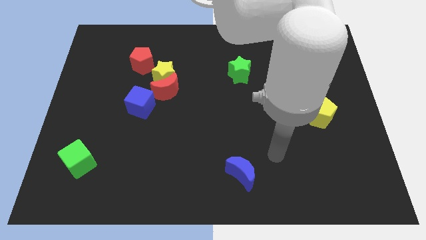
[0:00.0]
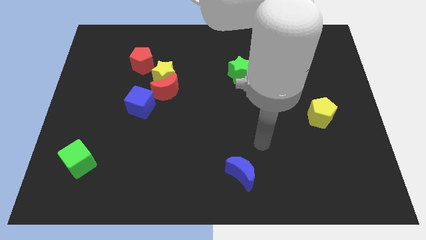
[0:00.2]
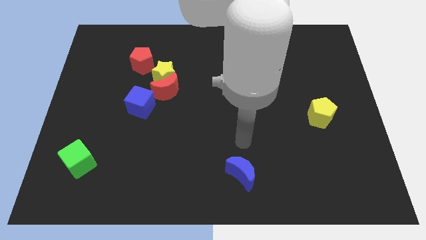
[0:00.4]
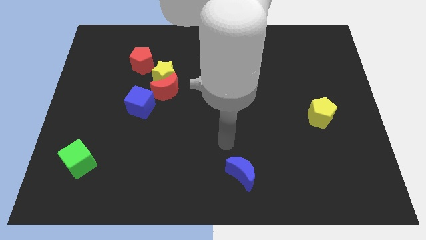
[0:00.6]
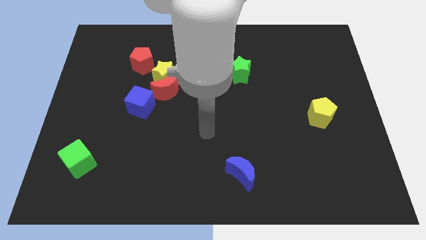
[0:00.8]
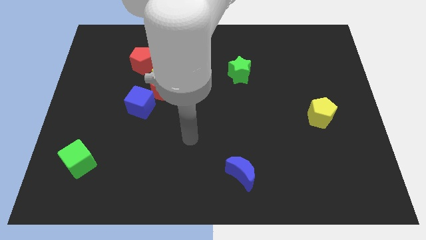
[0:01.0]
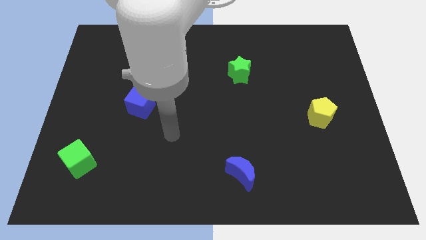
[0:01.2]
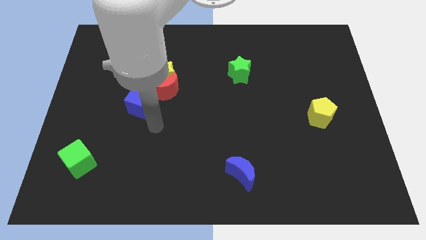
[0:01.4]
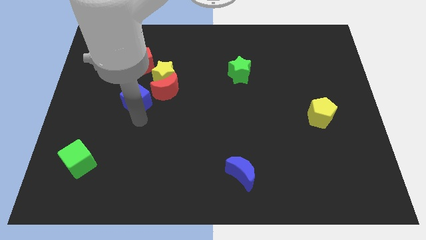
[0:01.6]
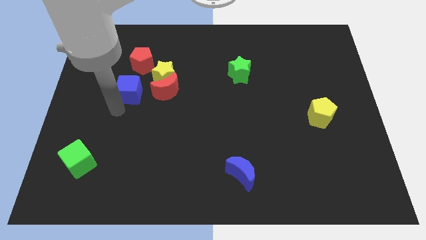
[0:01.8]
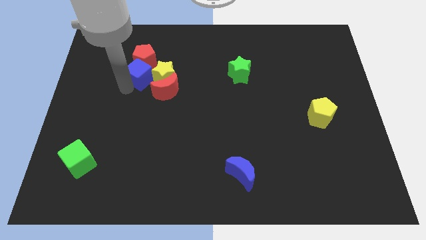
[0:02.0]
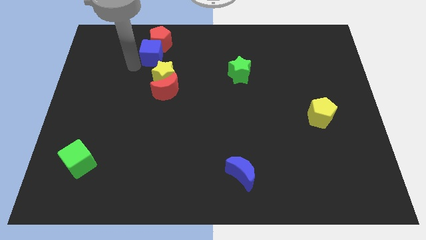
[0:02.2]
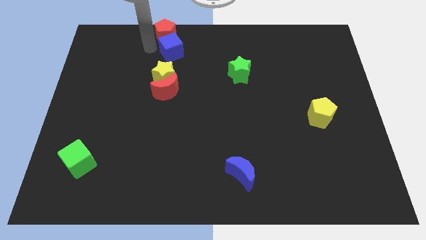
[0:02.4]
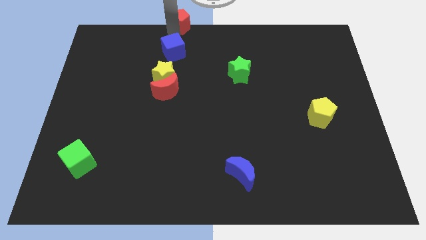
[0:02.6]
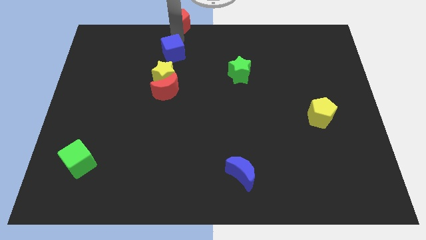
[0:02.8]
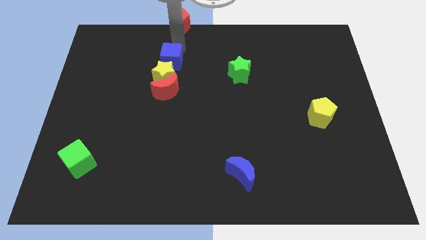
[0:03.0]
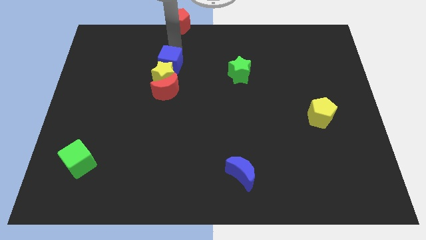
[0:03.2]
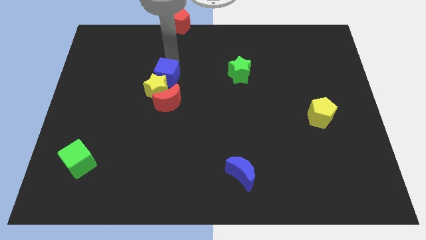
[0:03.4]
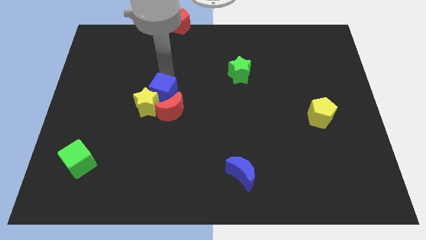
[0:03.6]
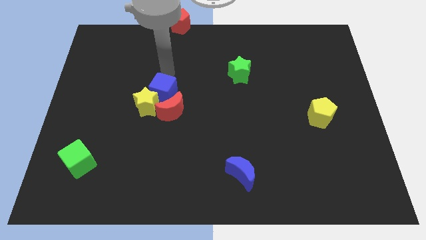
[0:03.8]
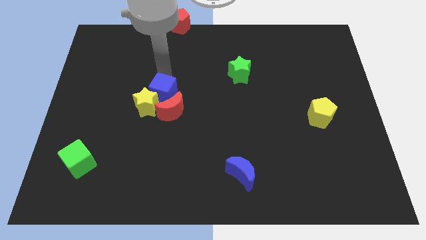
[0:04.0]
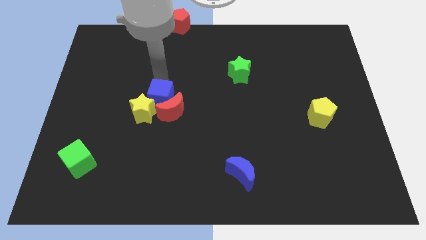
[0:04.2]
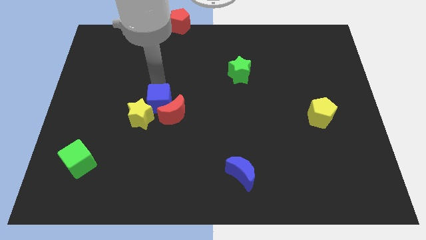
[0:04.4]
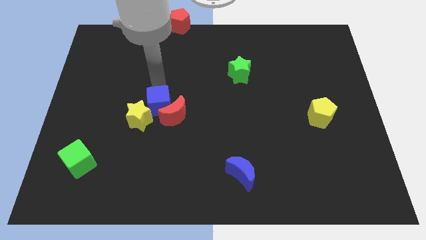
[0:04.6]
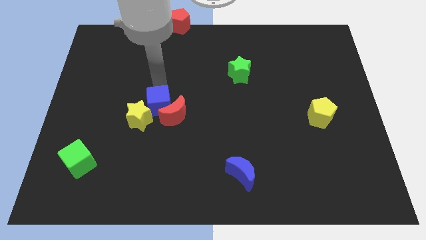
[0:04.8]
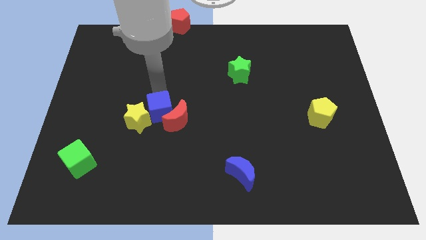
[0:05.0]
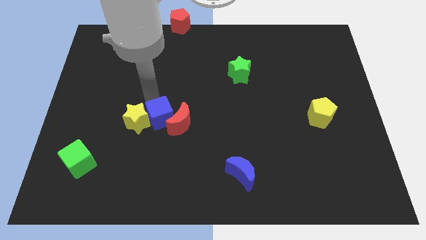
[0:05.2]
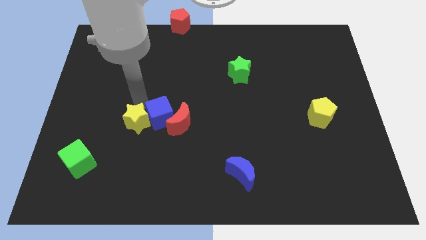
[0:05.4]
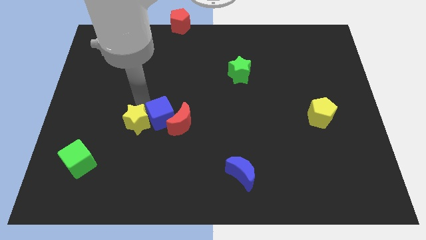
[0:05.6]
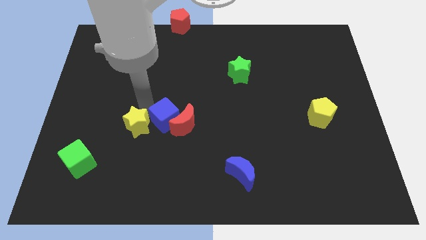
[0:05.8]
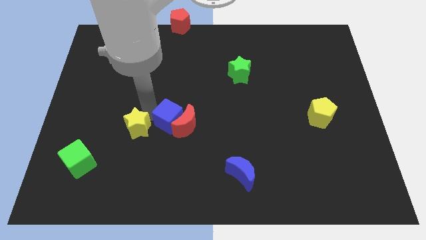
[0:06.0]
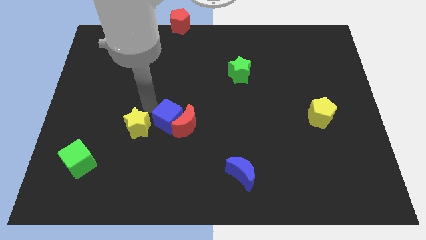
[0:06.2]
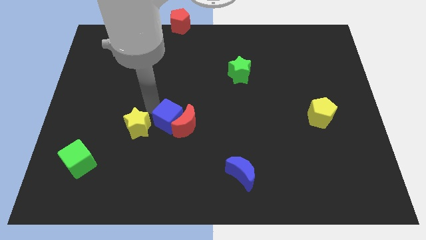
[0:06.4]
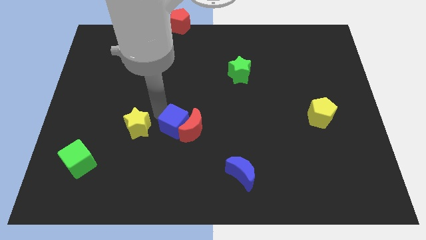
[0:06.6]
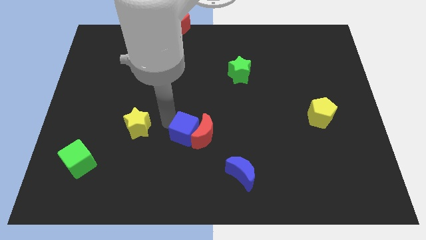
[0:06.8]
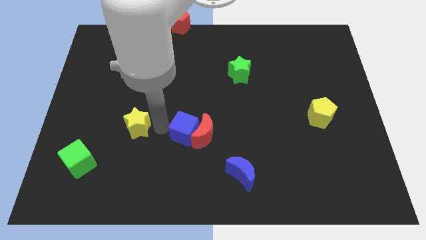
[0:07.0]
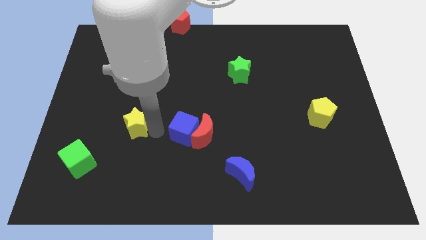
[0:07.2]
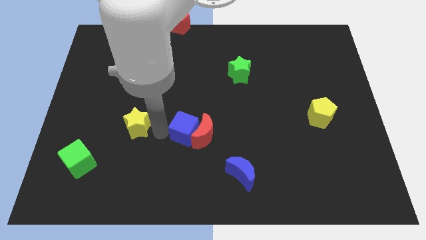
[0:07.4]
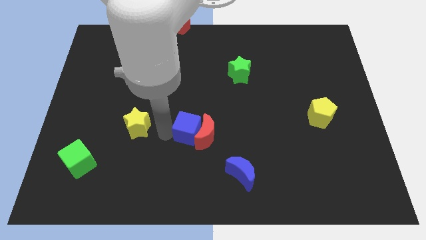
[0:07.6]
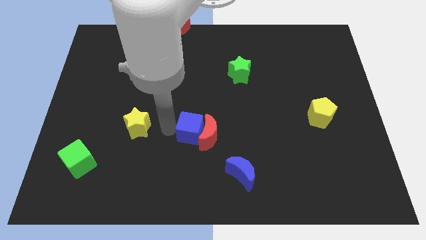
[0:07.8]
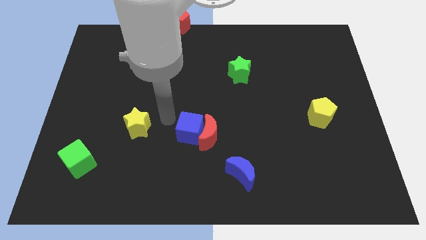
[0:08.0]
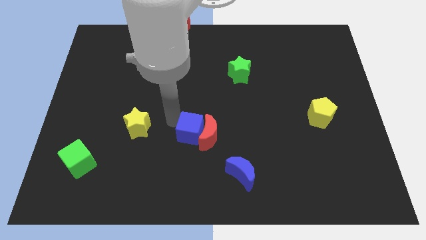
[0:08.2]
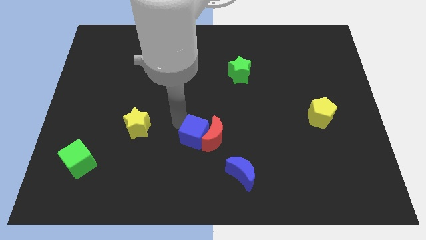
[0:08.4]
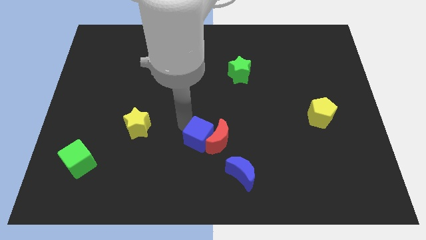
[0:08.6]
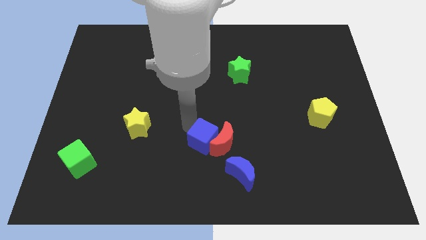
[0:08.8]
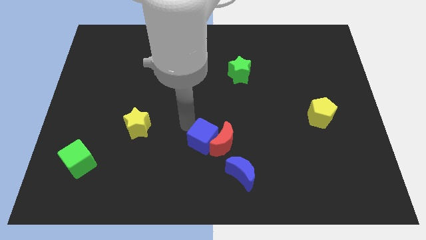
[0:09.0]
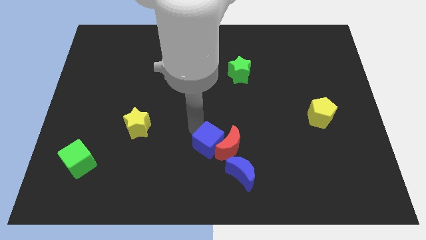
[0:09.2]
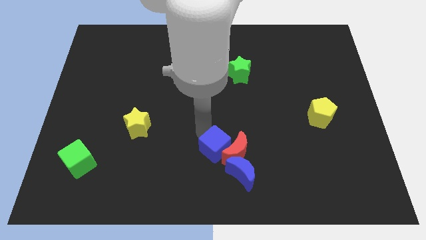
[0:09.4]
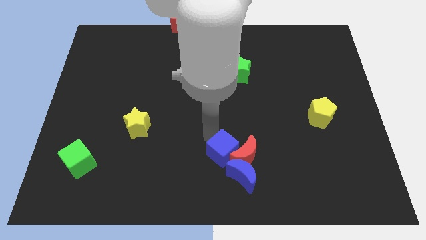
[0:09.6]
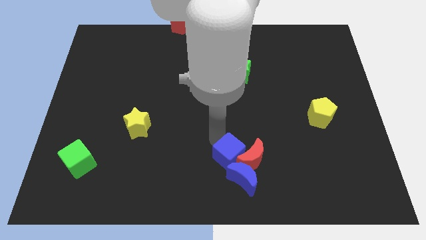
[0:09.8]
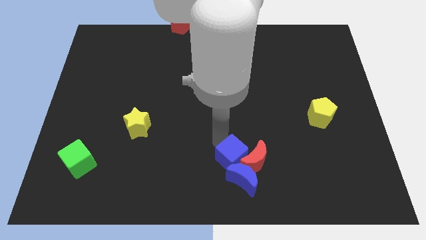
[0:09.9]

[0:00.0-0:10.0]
put the blue cube towards the blue moon

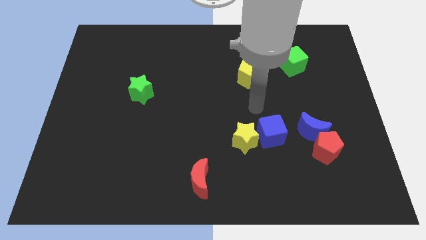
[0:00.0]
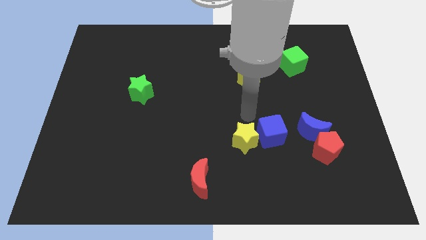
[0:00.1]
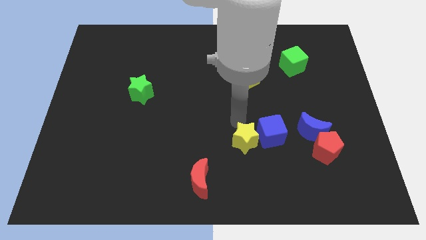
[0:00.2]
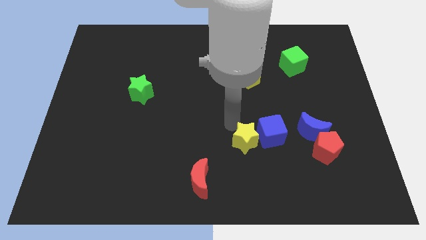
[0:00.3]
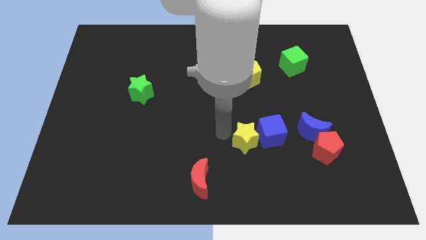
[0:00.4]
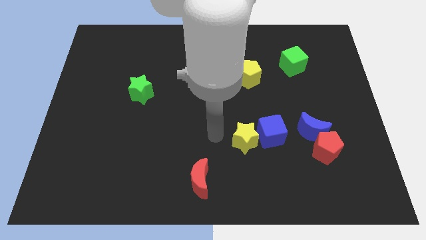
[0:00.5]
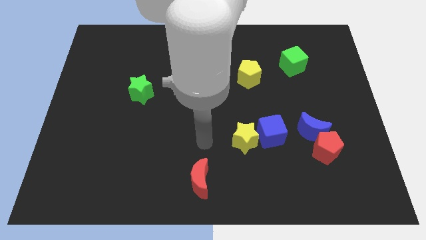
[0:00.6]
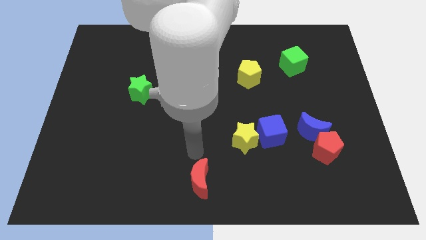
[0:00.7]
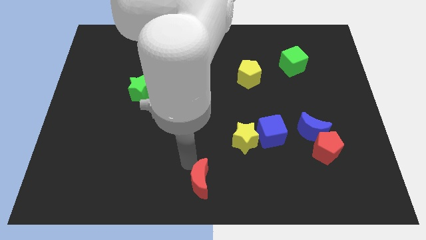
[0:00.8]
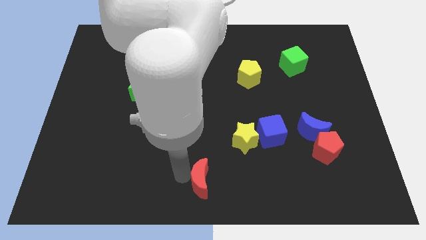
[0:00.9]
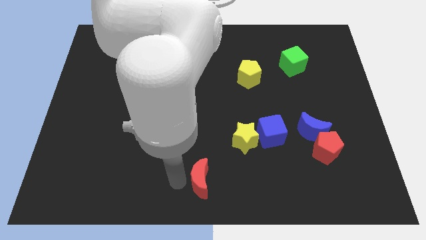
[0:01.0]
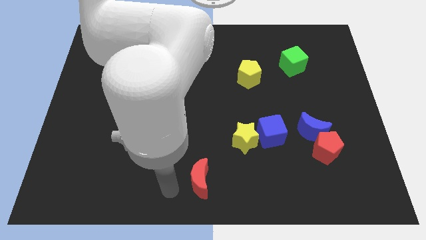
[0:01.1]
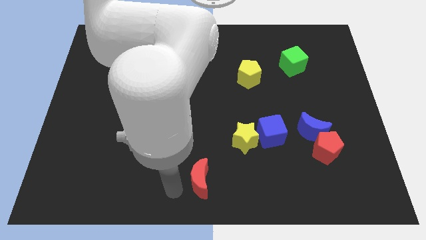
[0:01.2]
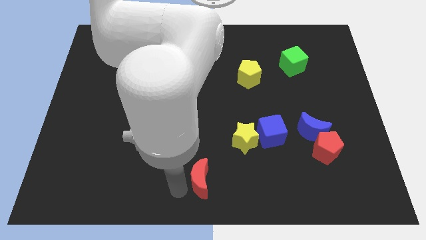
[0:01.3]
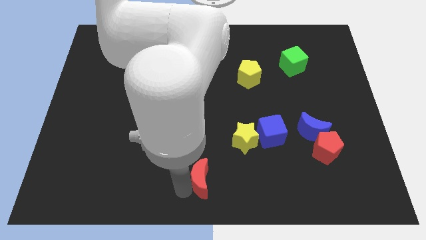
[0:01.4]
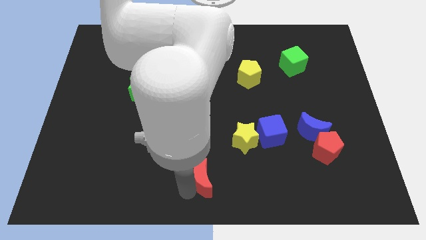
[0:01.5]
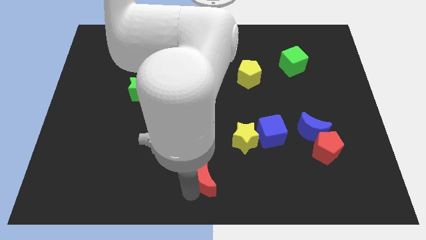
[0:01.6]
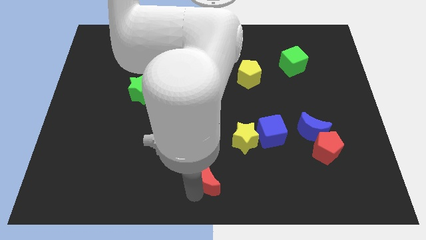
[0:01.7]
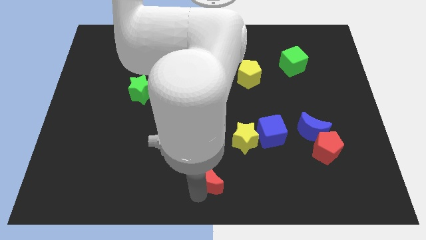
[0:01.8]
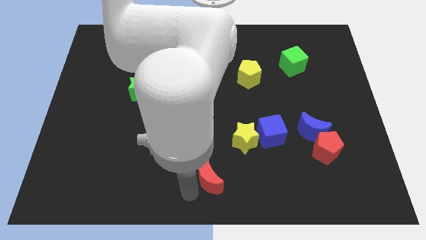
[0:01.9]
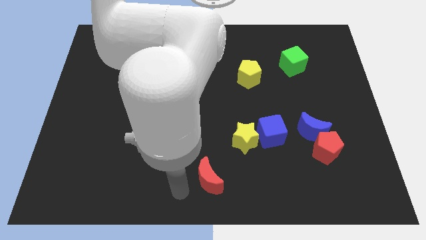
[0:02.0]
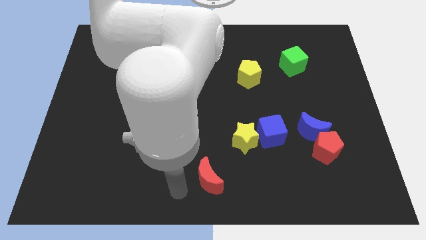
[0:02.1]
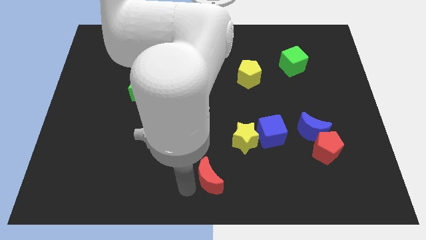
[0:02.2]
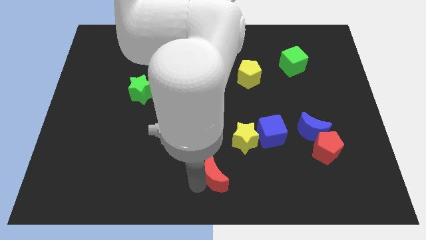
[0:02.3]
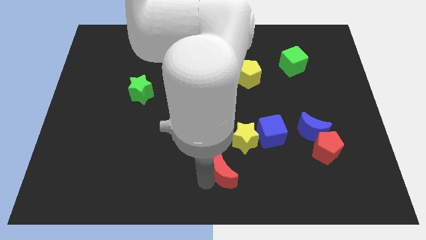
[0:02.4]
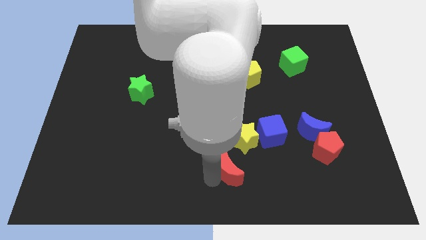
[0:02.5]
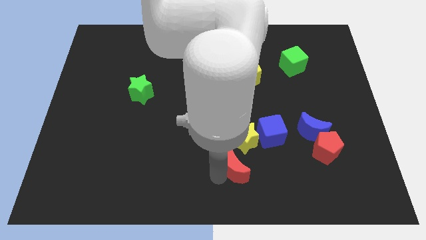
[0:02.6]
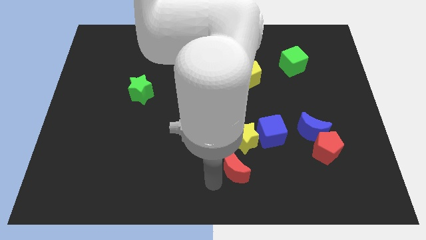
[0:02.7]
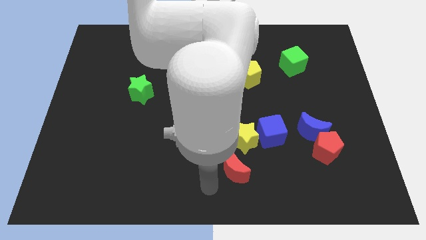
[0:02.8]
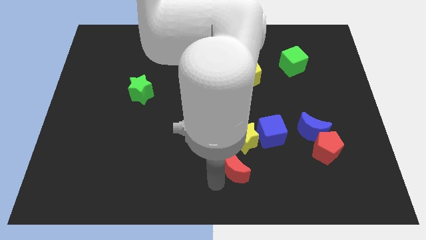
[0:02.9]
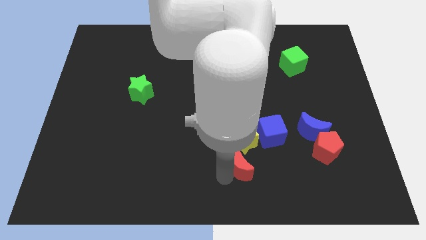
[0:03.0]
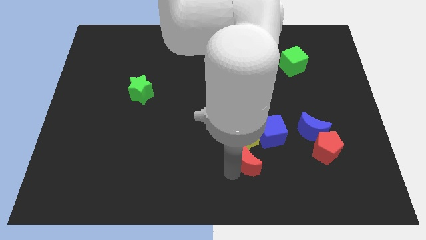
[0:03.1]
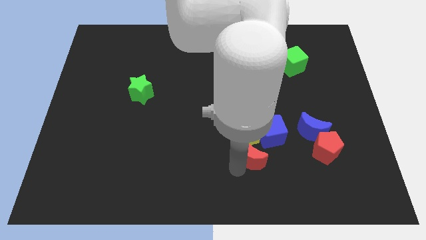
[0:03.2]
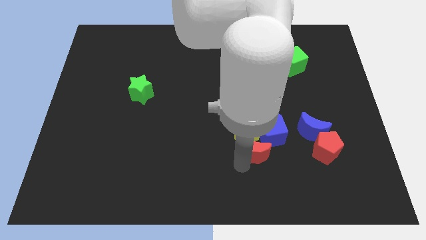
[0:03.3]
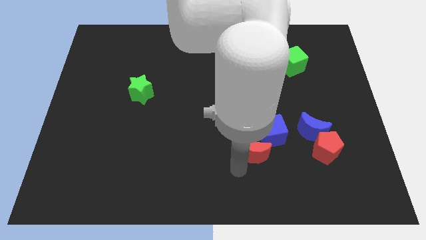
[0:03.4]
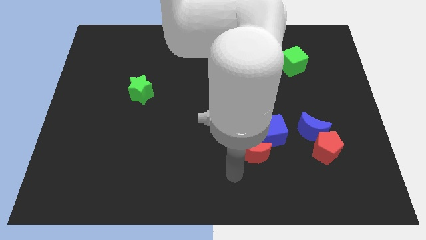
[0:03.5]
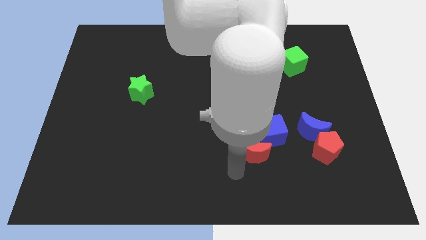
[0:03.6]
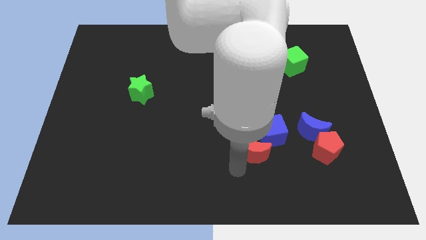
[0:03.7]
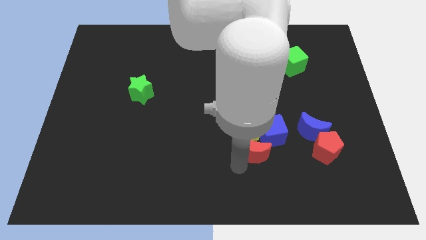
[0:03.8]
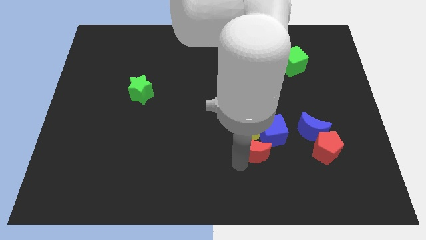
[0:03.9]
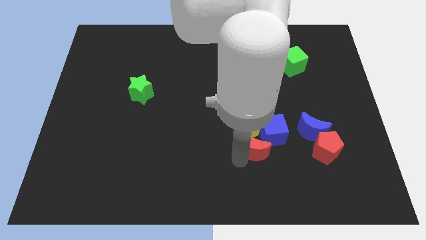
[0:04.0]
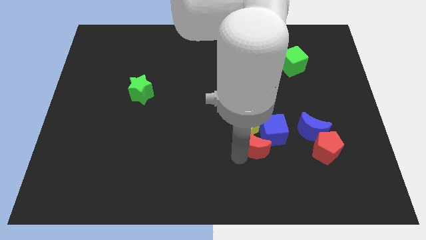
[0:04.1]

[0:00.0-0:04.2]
move the red moon close to the blue cube
